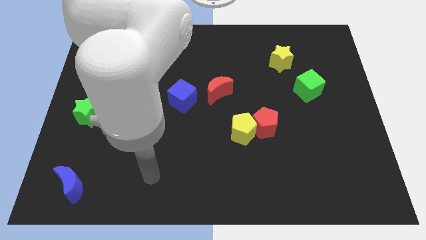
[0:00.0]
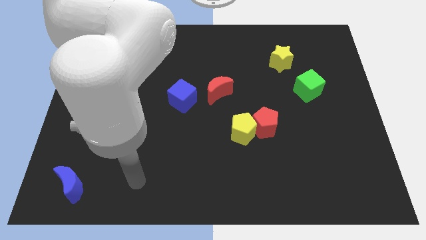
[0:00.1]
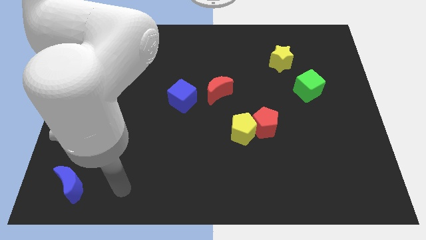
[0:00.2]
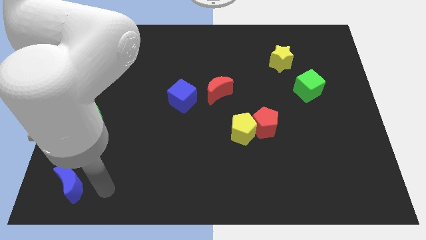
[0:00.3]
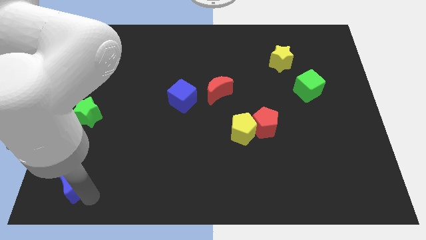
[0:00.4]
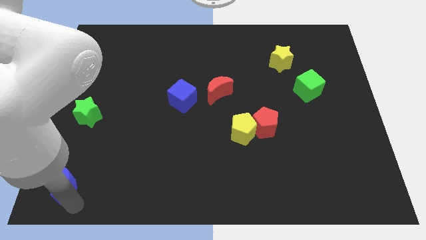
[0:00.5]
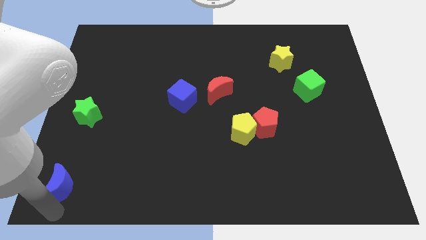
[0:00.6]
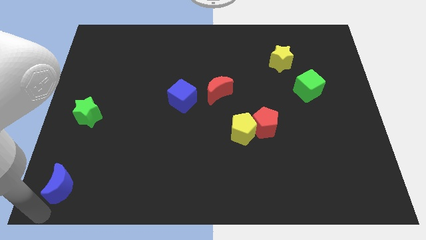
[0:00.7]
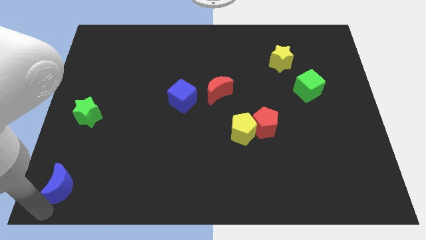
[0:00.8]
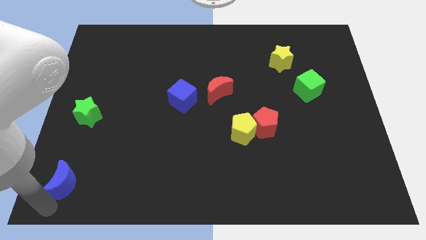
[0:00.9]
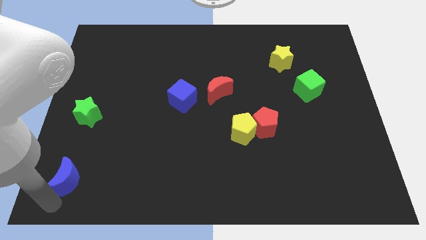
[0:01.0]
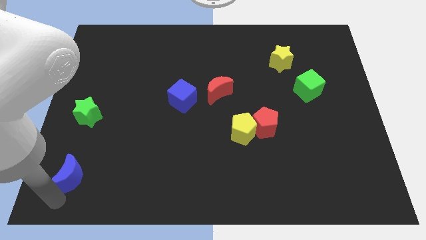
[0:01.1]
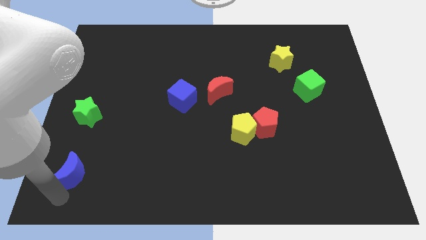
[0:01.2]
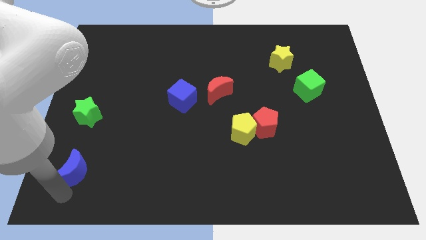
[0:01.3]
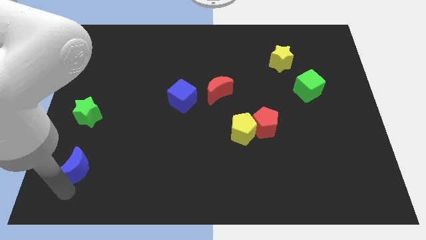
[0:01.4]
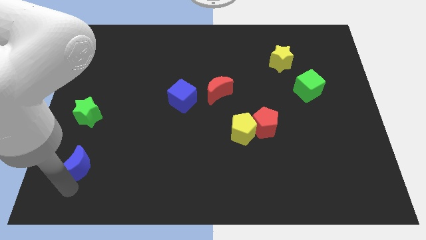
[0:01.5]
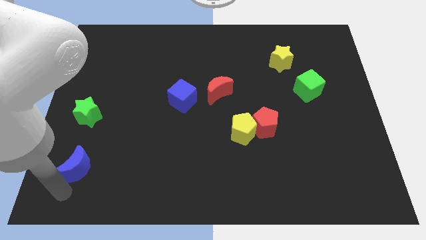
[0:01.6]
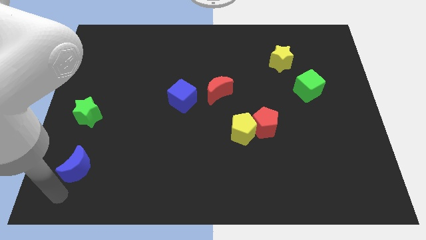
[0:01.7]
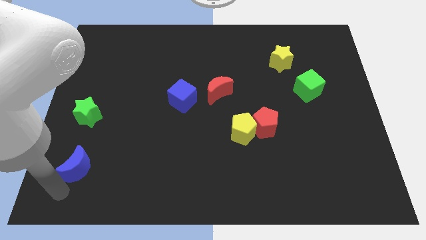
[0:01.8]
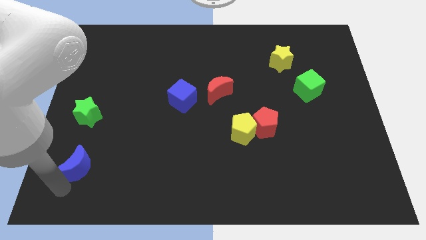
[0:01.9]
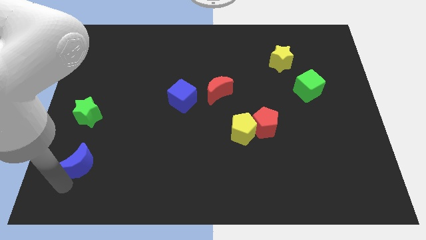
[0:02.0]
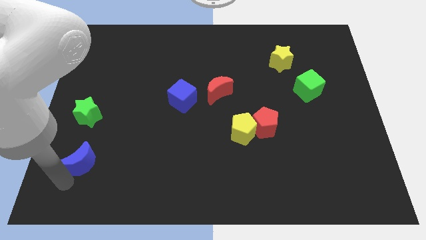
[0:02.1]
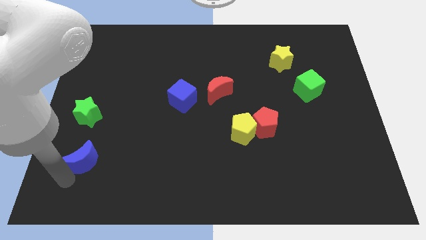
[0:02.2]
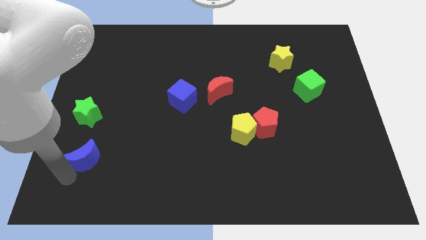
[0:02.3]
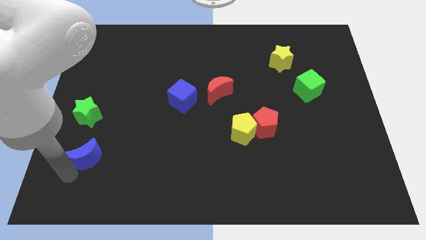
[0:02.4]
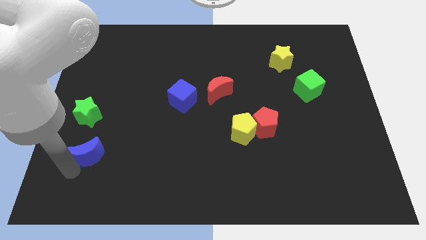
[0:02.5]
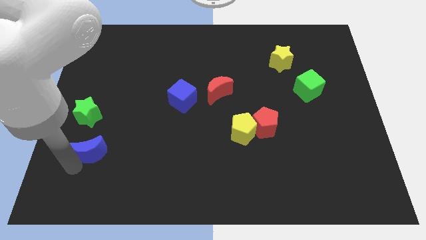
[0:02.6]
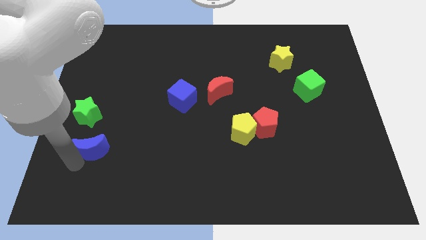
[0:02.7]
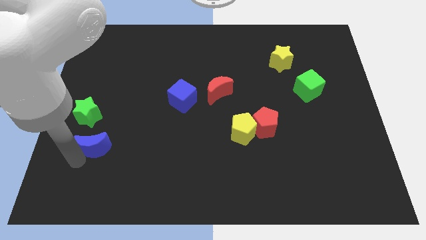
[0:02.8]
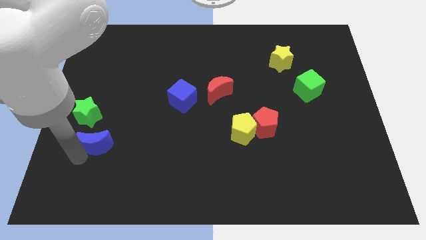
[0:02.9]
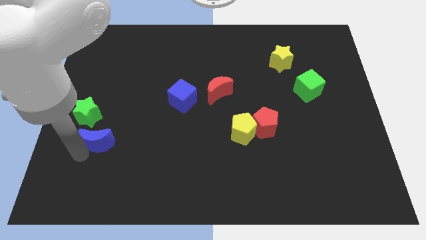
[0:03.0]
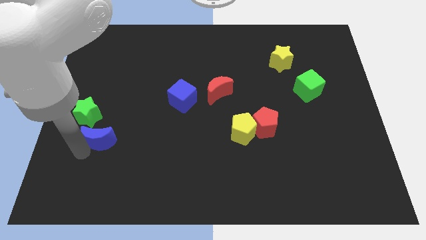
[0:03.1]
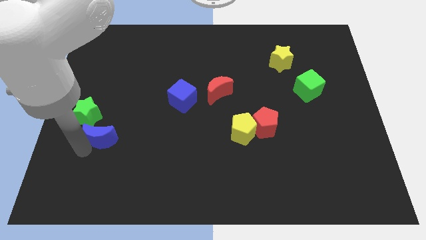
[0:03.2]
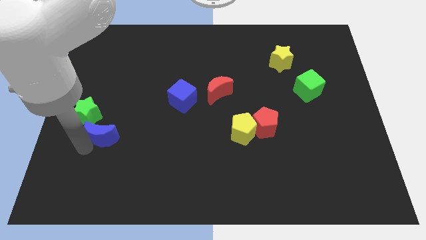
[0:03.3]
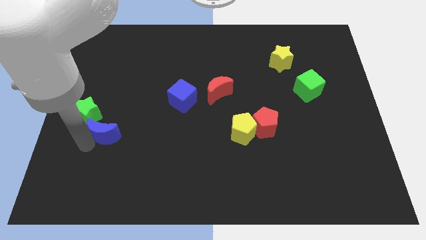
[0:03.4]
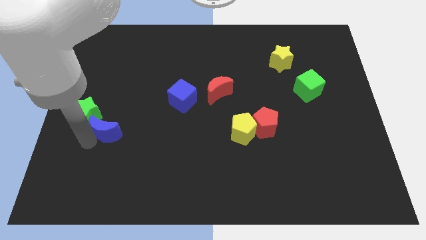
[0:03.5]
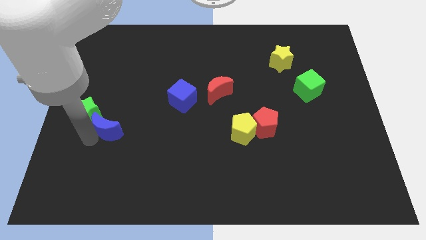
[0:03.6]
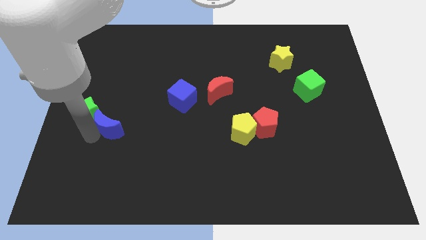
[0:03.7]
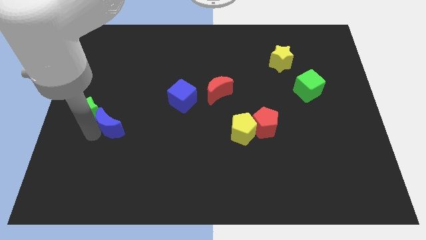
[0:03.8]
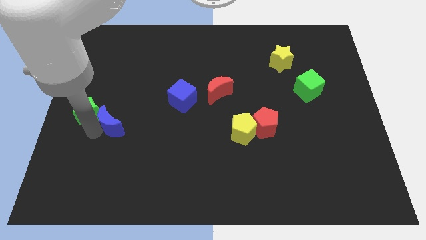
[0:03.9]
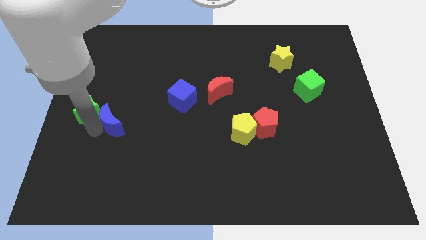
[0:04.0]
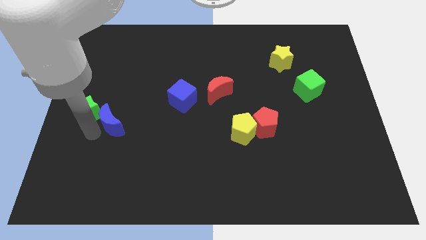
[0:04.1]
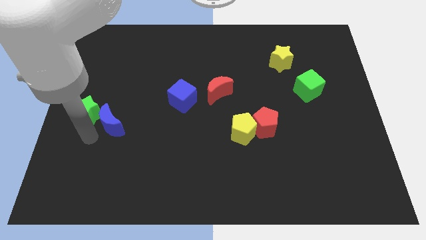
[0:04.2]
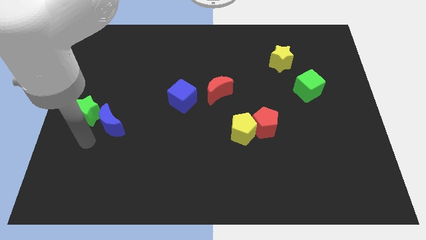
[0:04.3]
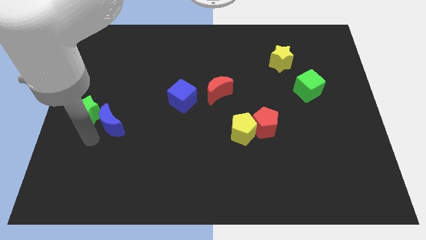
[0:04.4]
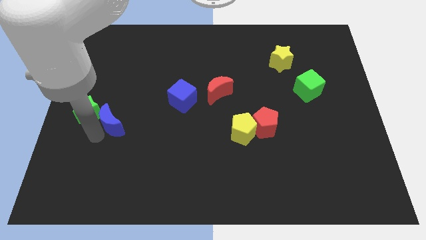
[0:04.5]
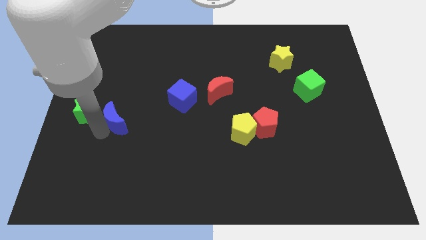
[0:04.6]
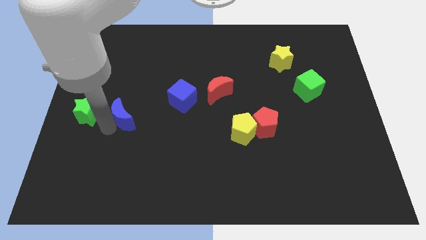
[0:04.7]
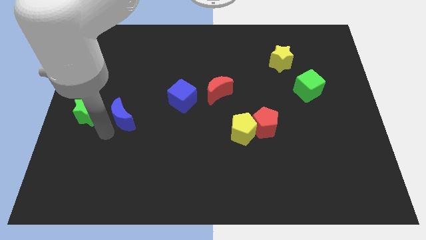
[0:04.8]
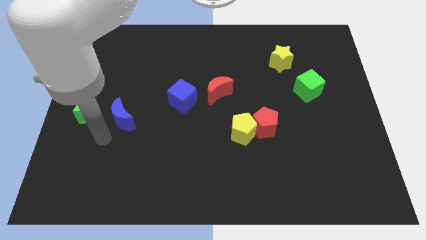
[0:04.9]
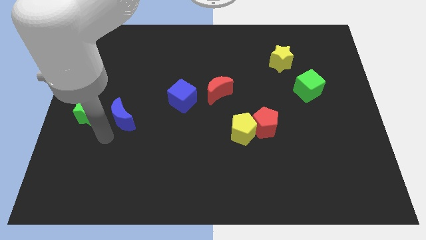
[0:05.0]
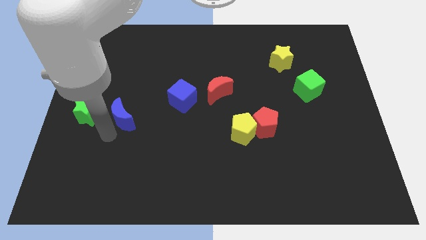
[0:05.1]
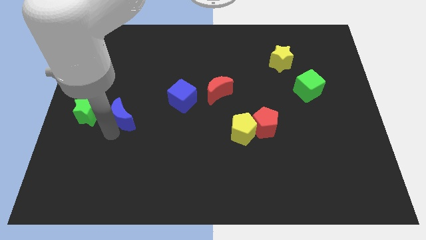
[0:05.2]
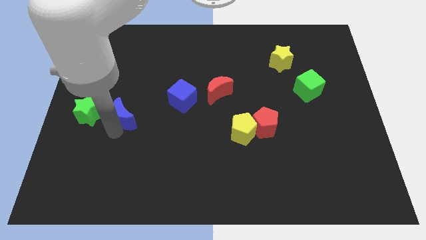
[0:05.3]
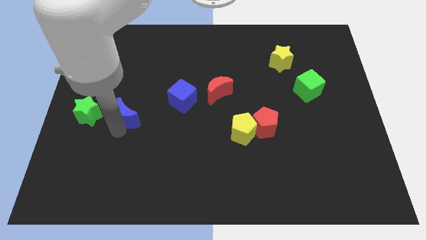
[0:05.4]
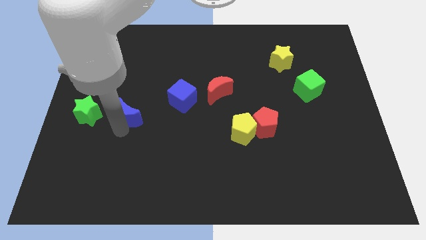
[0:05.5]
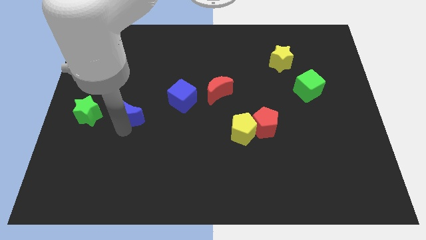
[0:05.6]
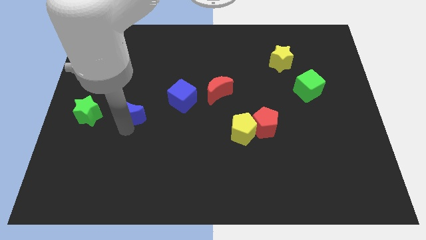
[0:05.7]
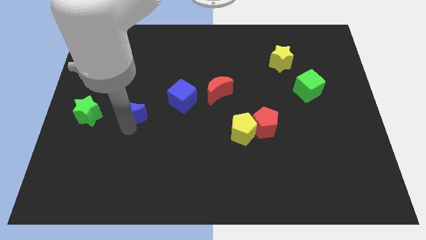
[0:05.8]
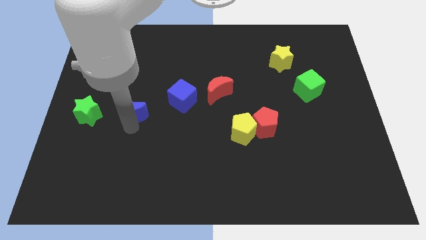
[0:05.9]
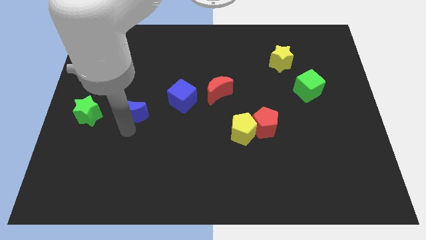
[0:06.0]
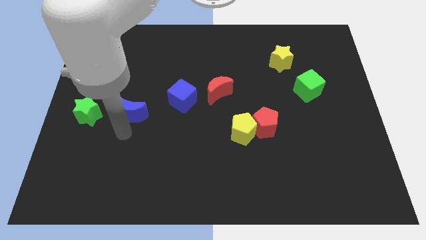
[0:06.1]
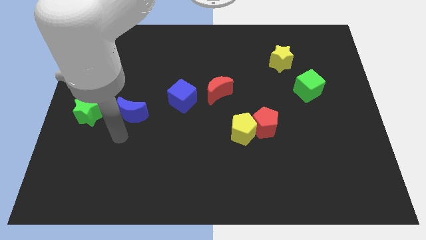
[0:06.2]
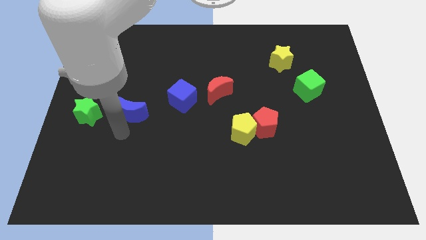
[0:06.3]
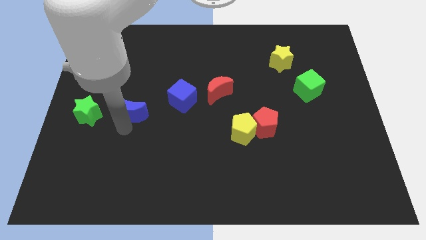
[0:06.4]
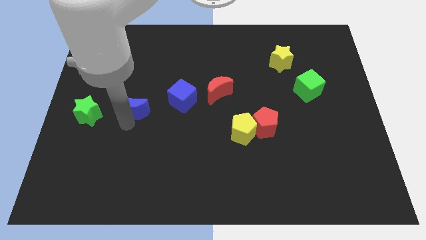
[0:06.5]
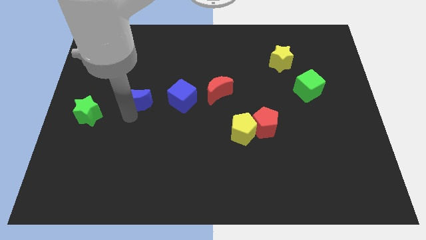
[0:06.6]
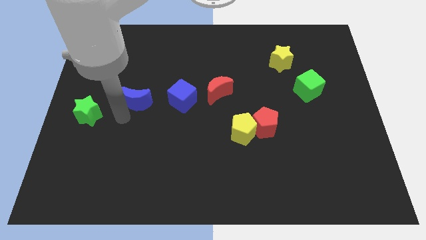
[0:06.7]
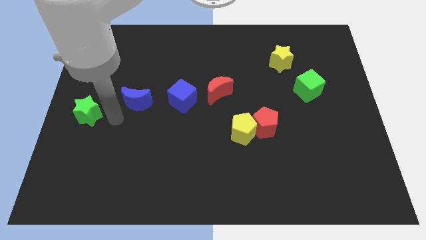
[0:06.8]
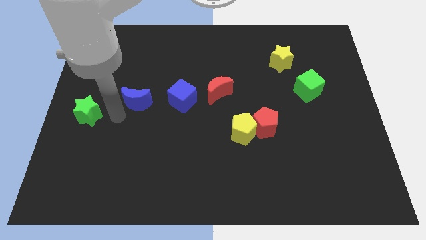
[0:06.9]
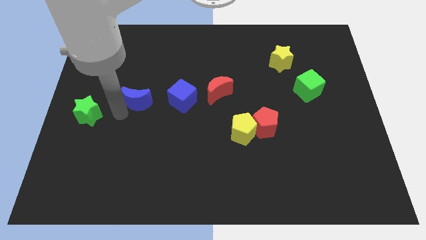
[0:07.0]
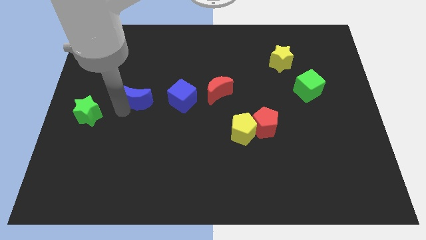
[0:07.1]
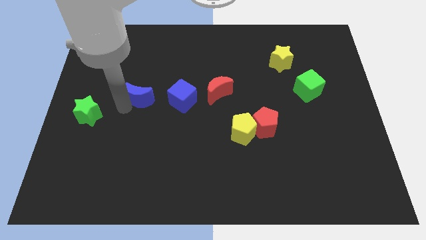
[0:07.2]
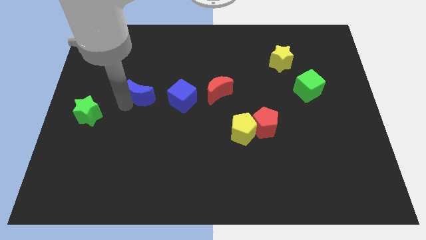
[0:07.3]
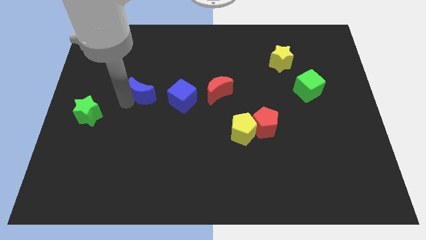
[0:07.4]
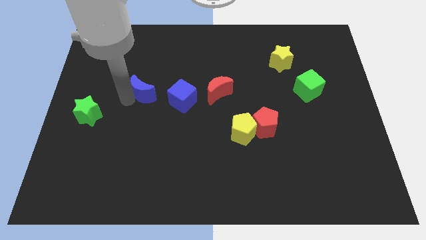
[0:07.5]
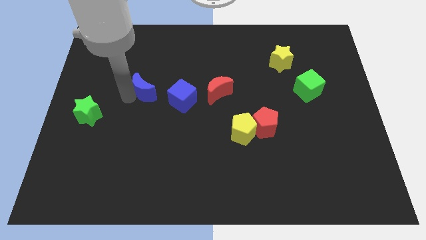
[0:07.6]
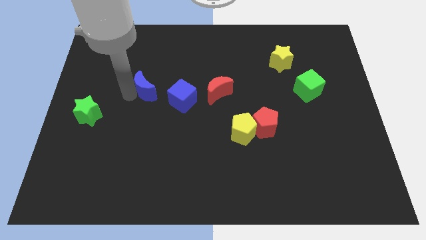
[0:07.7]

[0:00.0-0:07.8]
move the blue moon diagonally up and to the left of the blue cube
